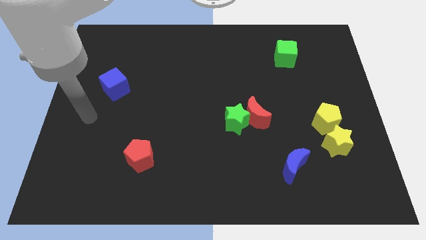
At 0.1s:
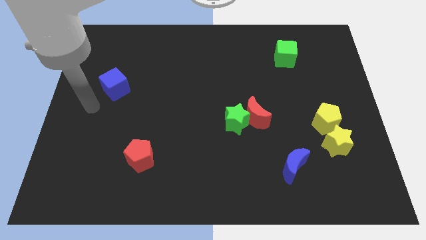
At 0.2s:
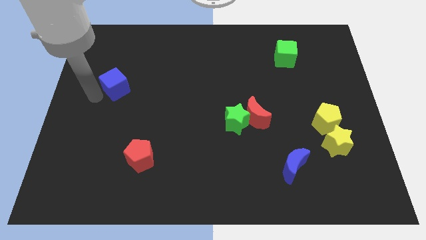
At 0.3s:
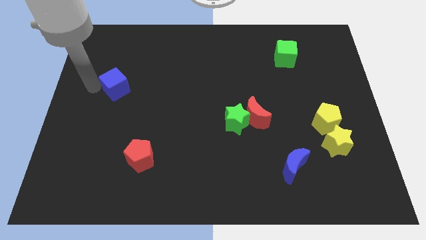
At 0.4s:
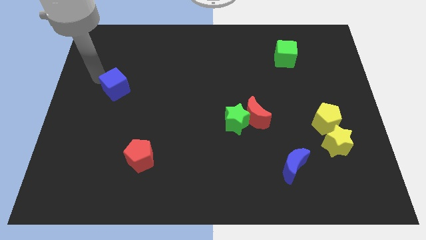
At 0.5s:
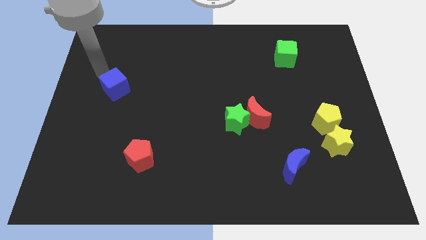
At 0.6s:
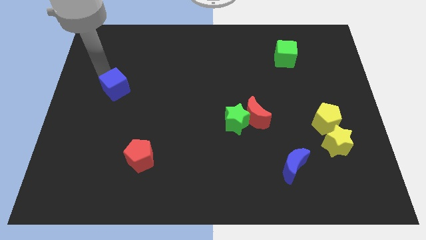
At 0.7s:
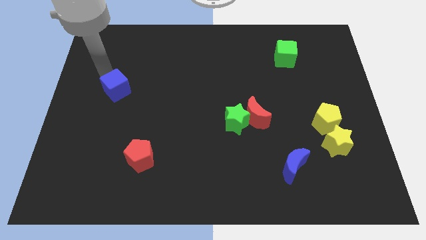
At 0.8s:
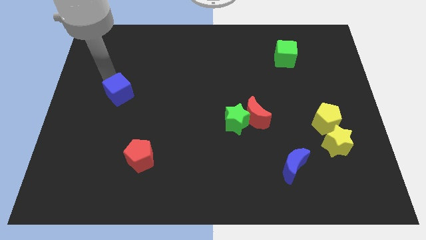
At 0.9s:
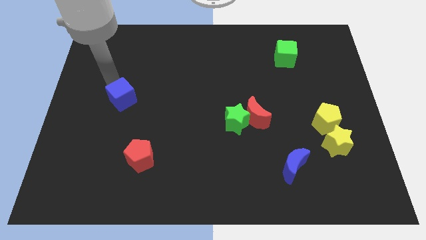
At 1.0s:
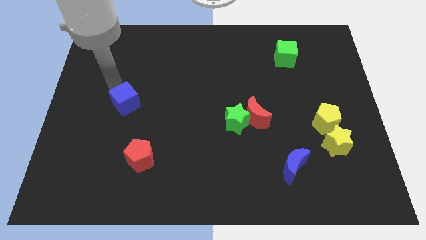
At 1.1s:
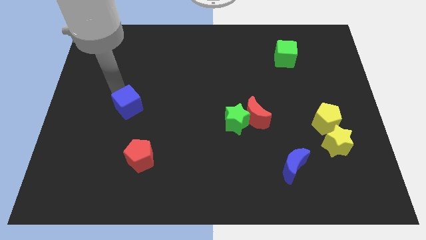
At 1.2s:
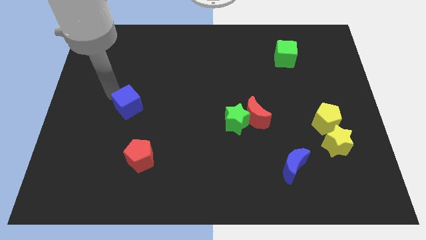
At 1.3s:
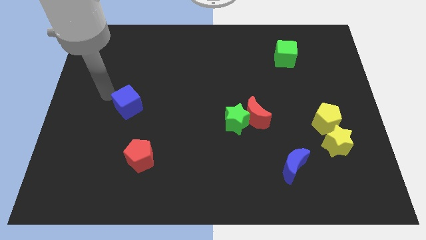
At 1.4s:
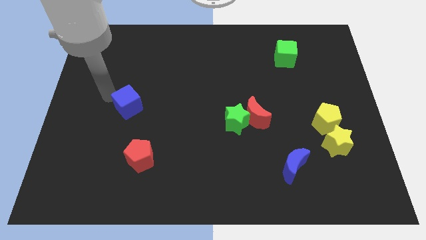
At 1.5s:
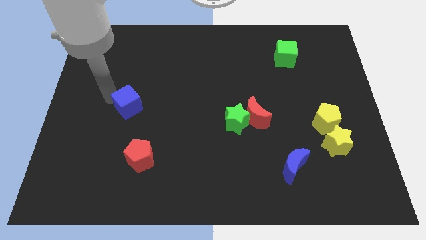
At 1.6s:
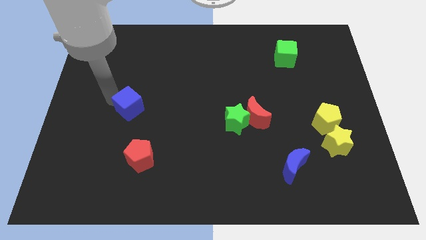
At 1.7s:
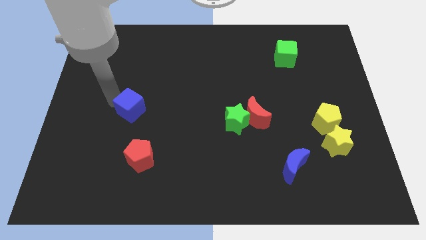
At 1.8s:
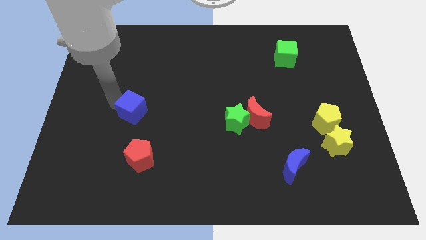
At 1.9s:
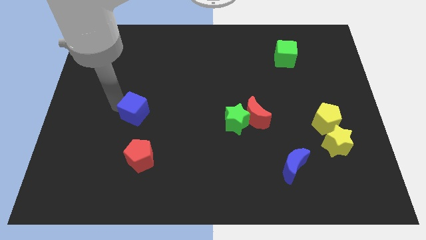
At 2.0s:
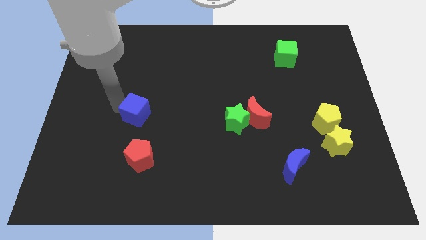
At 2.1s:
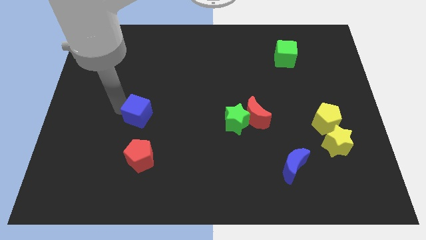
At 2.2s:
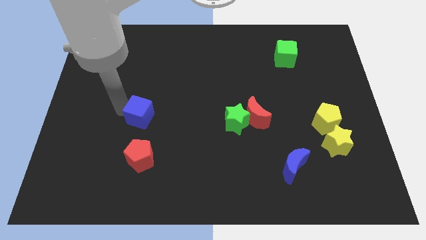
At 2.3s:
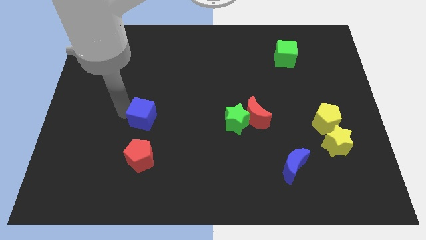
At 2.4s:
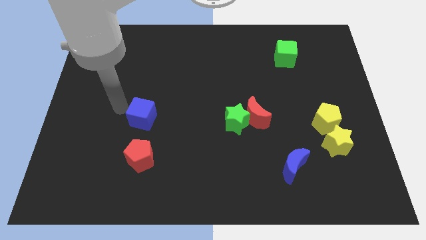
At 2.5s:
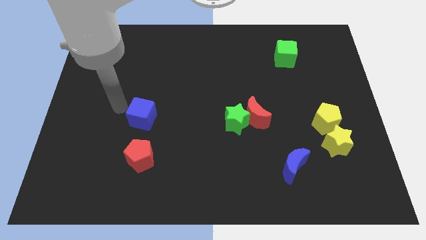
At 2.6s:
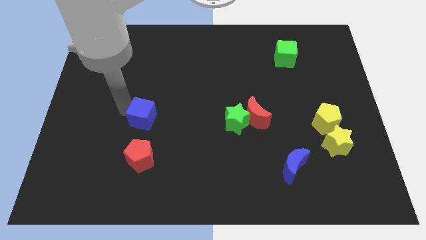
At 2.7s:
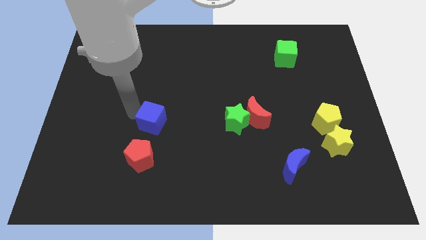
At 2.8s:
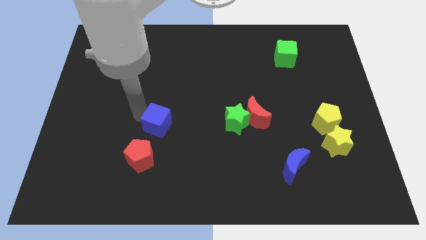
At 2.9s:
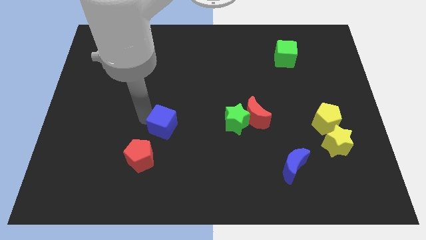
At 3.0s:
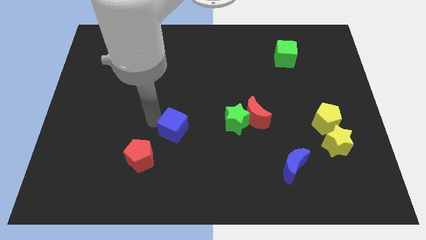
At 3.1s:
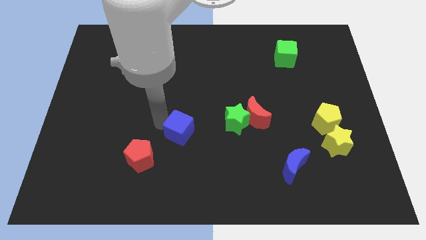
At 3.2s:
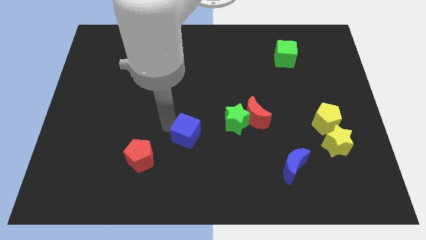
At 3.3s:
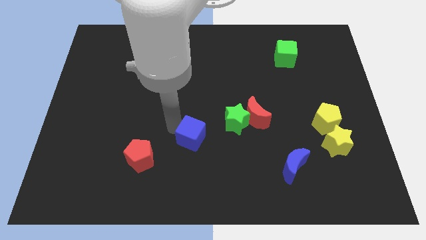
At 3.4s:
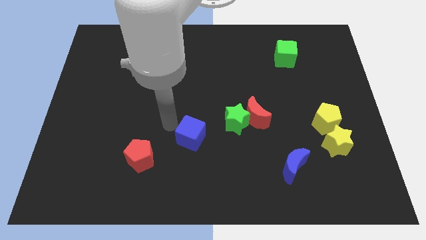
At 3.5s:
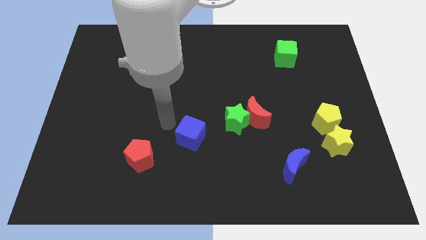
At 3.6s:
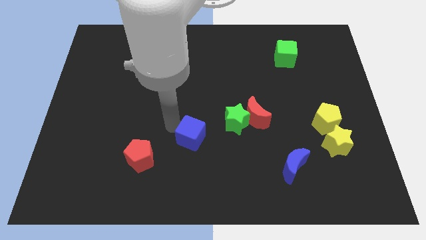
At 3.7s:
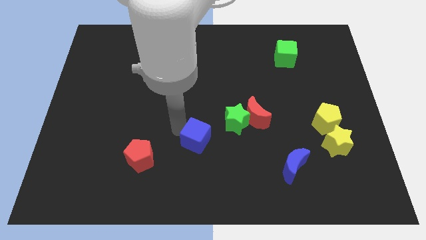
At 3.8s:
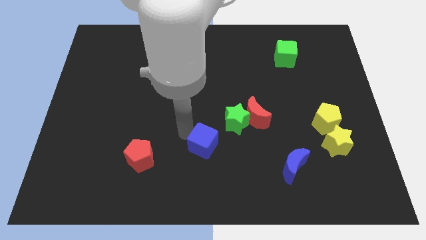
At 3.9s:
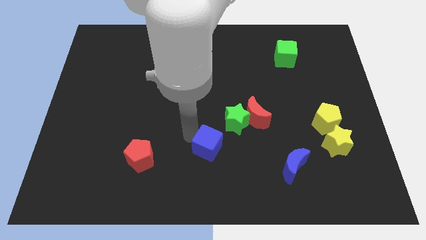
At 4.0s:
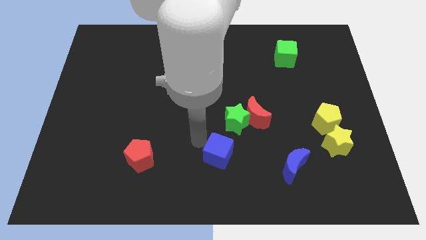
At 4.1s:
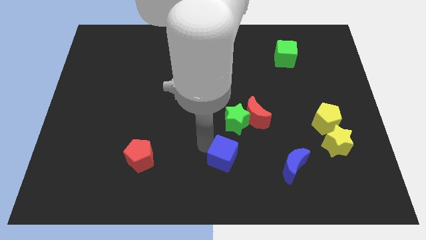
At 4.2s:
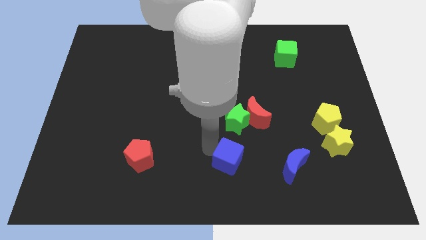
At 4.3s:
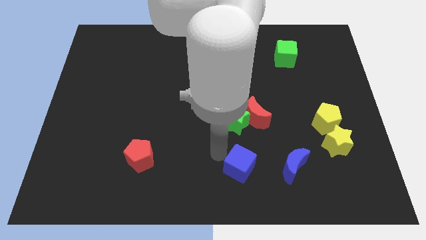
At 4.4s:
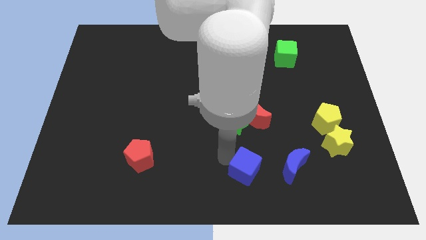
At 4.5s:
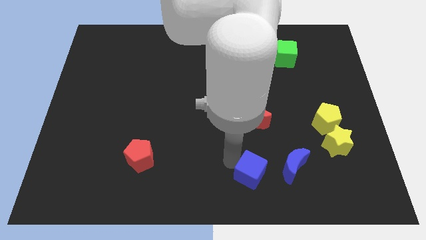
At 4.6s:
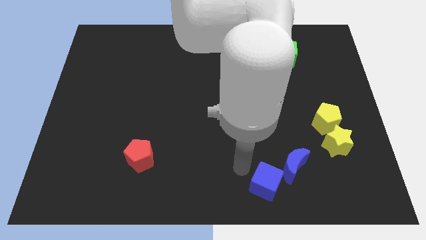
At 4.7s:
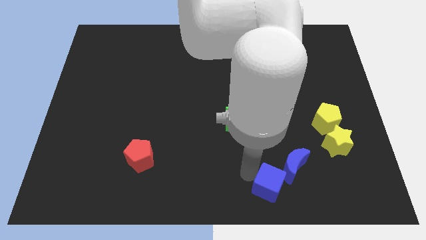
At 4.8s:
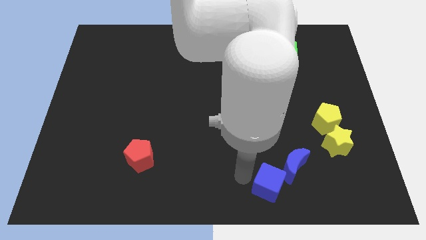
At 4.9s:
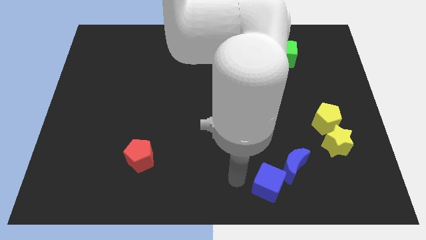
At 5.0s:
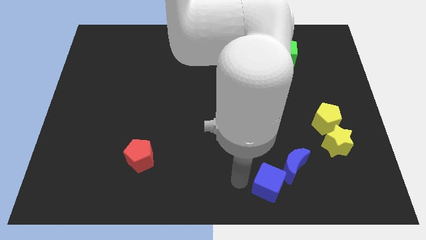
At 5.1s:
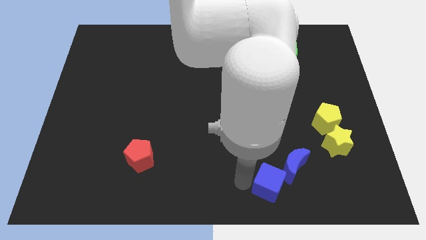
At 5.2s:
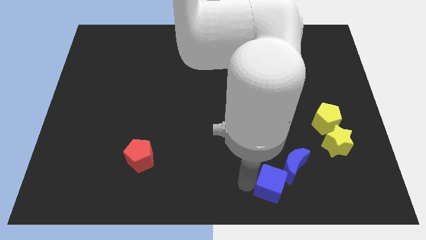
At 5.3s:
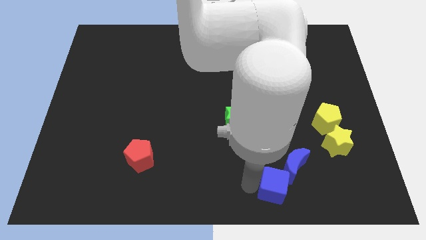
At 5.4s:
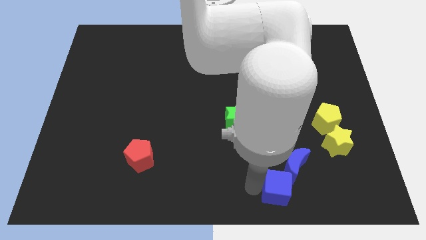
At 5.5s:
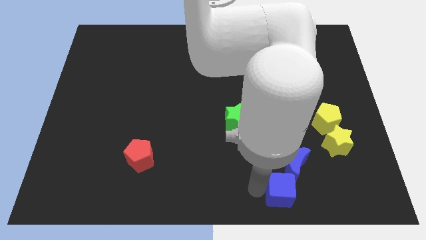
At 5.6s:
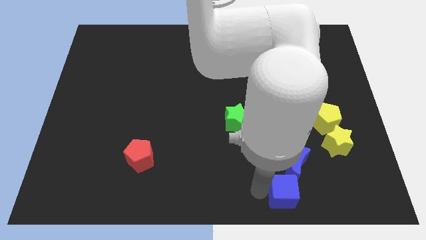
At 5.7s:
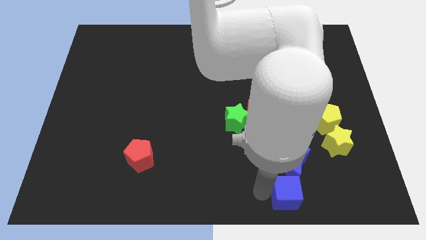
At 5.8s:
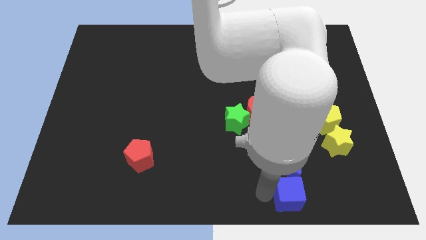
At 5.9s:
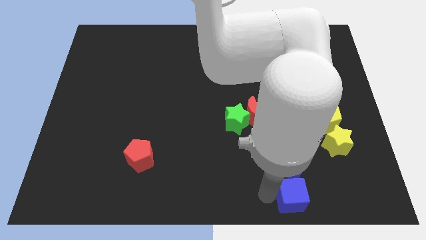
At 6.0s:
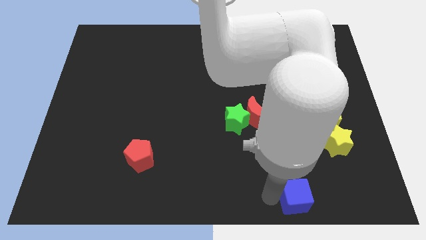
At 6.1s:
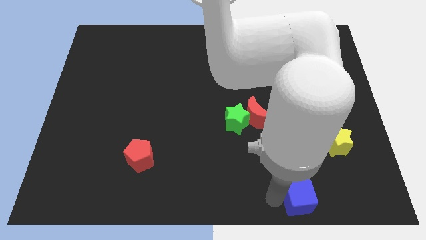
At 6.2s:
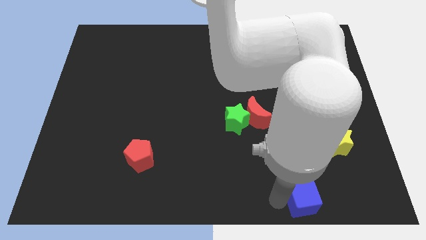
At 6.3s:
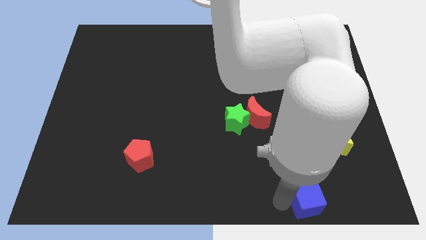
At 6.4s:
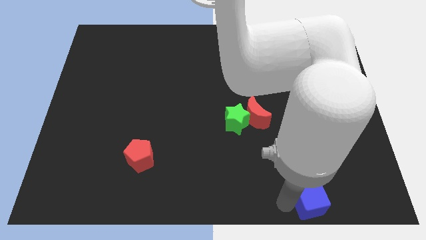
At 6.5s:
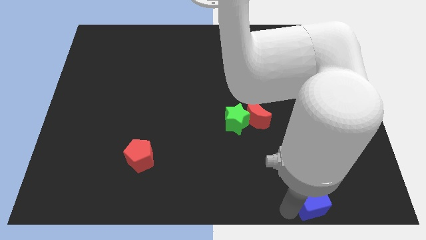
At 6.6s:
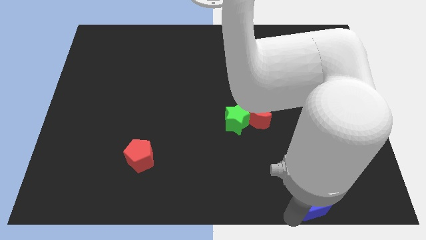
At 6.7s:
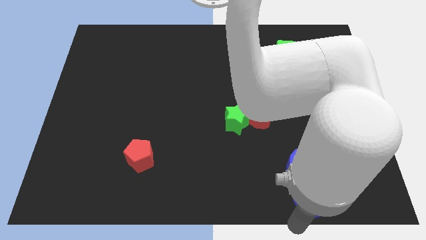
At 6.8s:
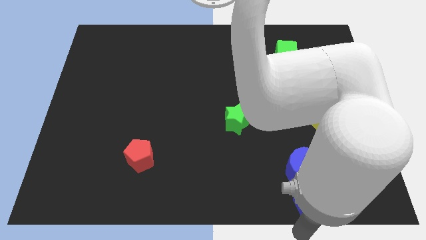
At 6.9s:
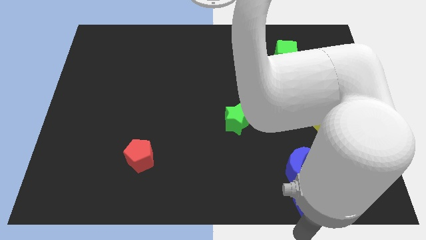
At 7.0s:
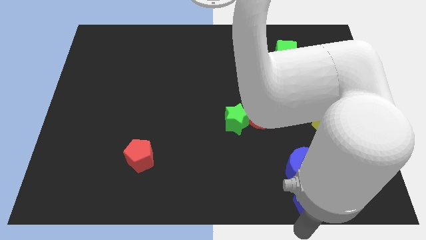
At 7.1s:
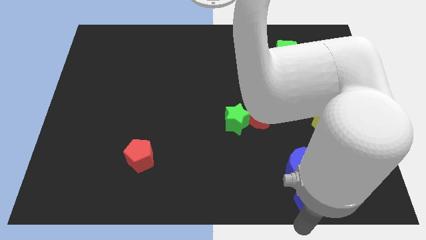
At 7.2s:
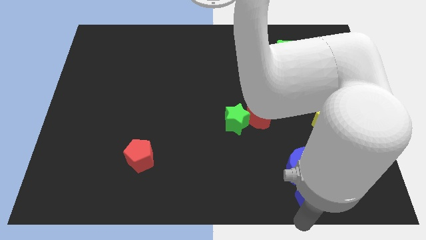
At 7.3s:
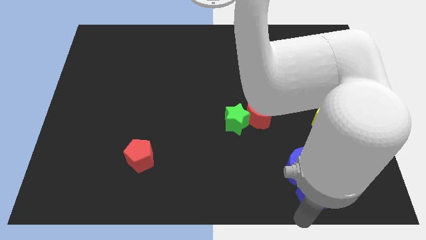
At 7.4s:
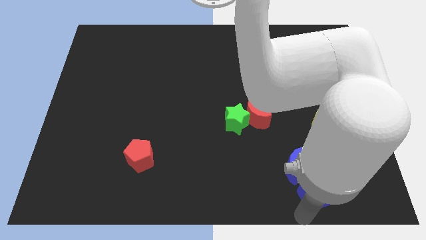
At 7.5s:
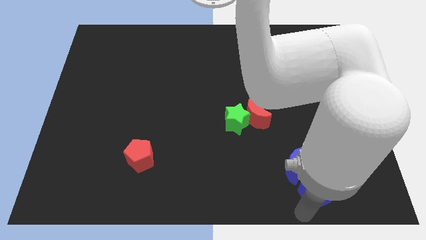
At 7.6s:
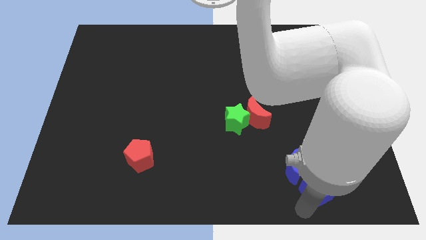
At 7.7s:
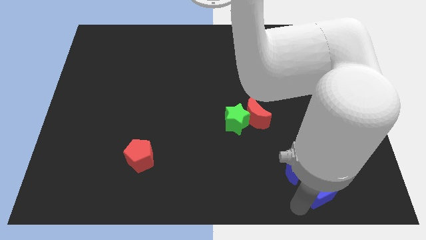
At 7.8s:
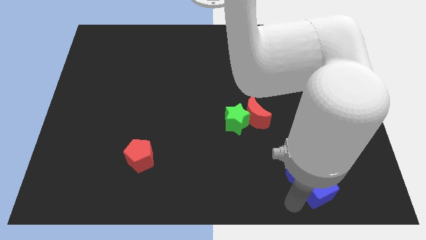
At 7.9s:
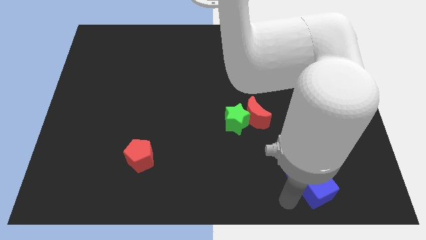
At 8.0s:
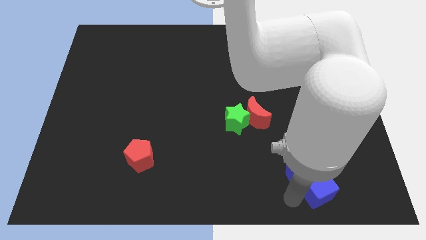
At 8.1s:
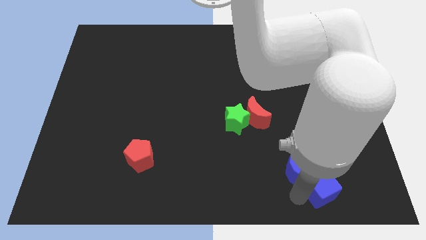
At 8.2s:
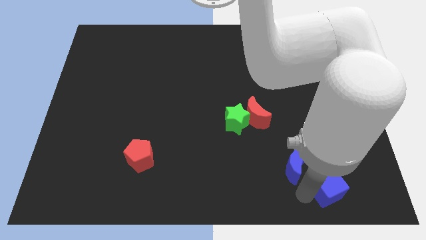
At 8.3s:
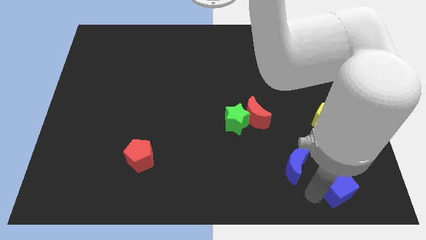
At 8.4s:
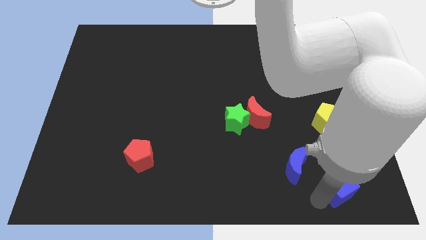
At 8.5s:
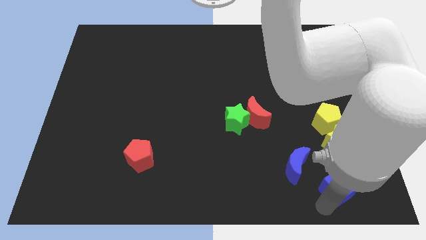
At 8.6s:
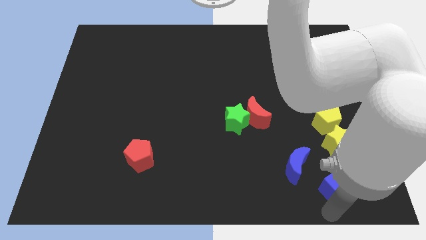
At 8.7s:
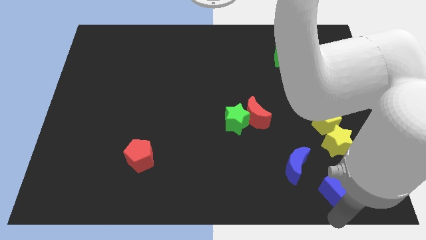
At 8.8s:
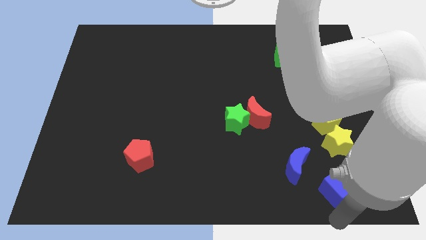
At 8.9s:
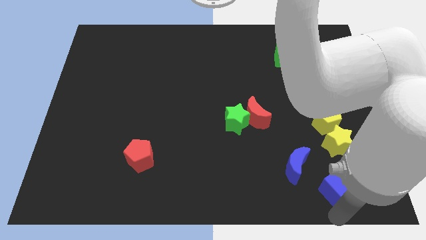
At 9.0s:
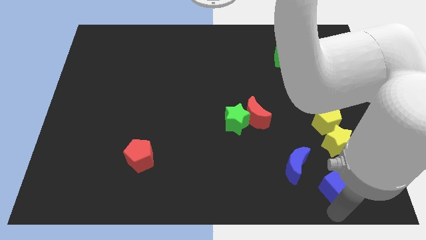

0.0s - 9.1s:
put the blue cube to the bottom side of the yellow pentagon
